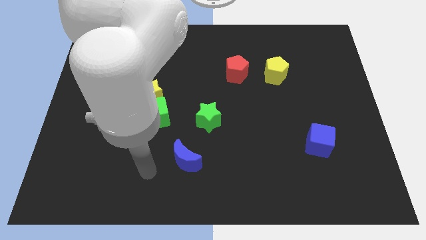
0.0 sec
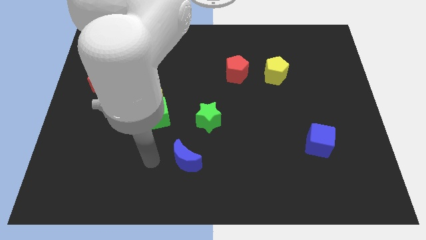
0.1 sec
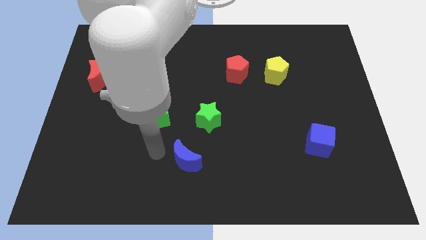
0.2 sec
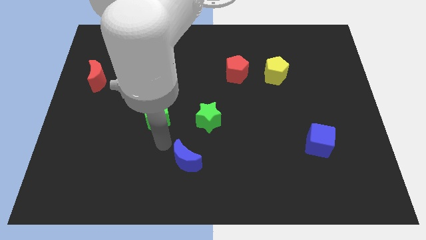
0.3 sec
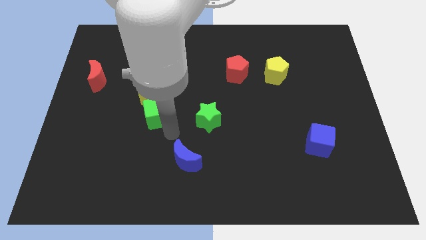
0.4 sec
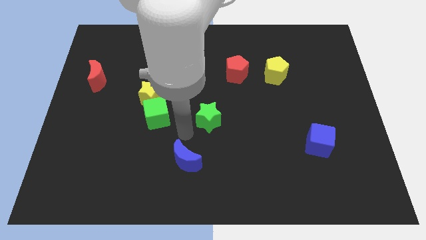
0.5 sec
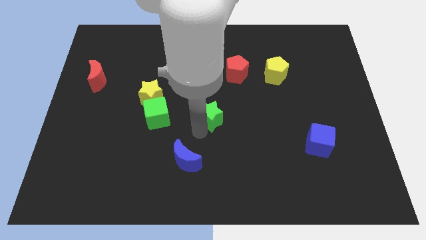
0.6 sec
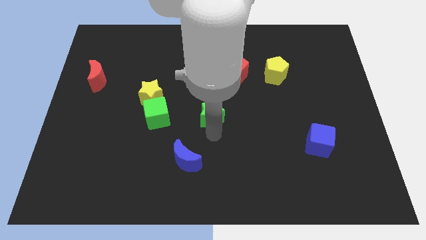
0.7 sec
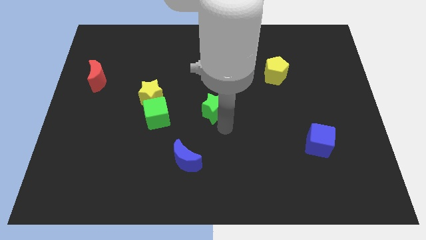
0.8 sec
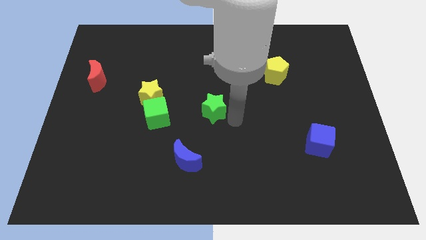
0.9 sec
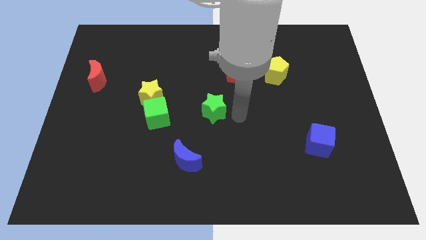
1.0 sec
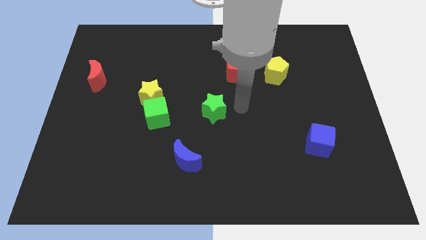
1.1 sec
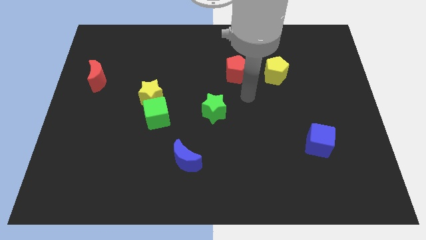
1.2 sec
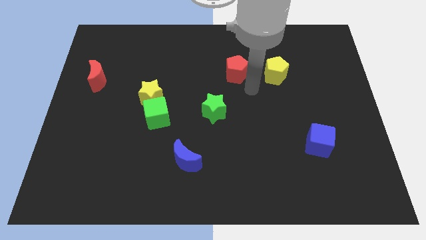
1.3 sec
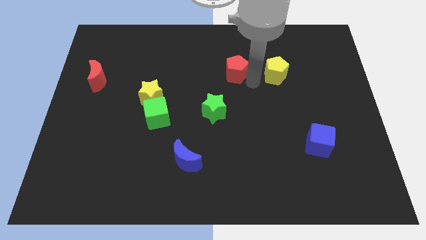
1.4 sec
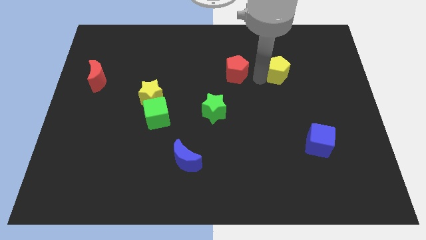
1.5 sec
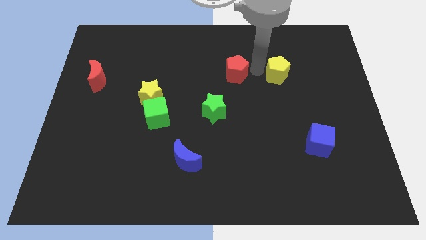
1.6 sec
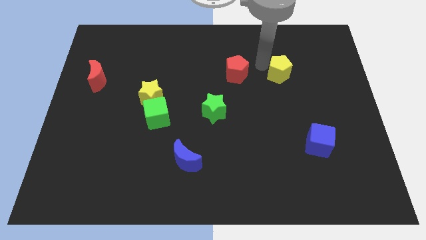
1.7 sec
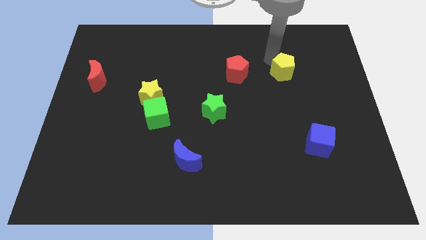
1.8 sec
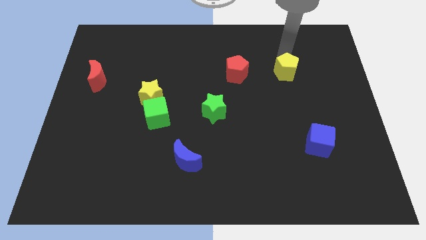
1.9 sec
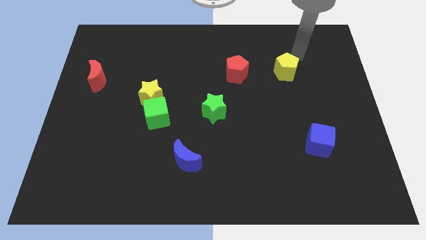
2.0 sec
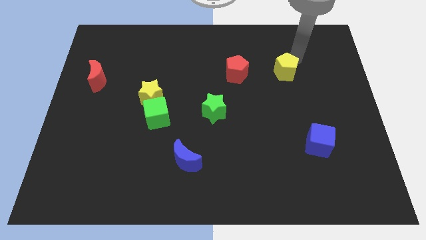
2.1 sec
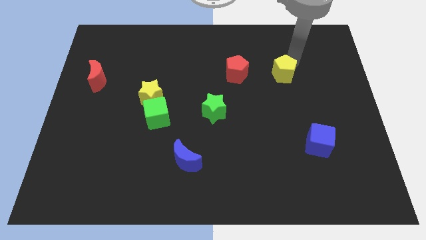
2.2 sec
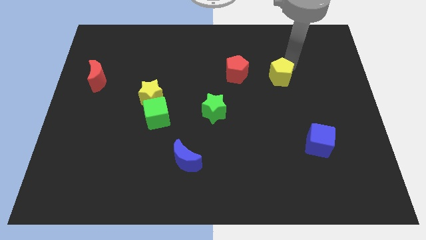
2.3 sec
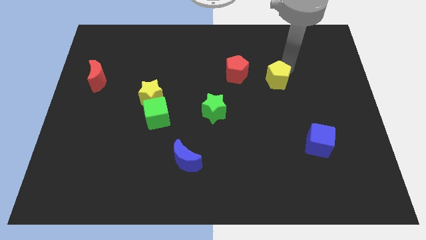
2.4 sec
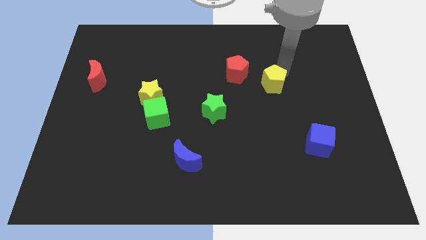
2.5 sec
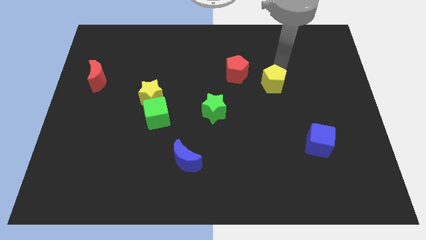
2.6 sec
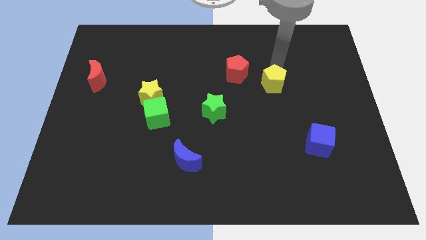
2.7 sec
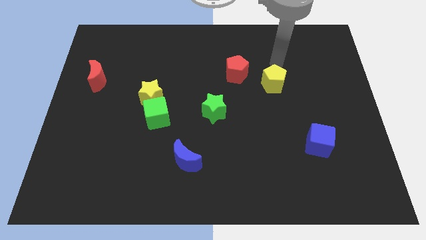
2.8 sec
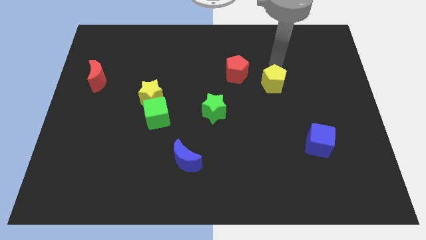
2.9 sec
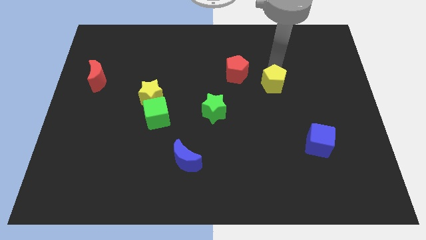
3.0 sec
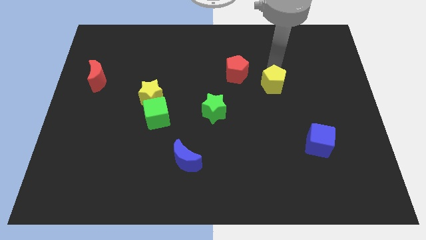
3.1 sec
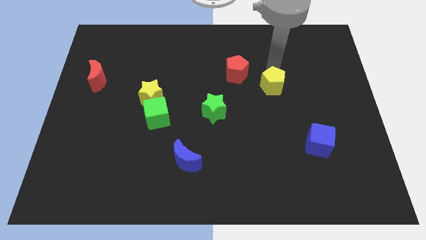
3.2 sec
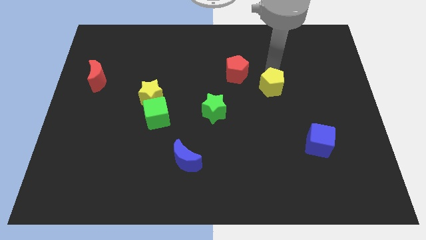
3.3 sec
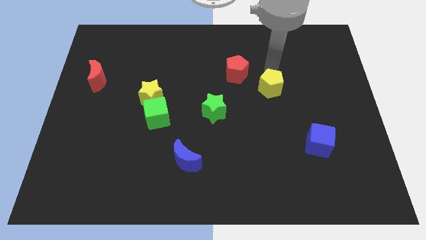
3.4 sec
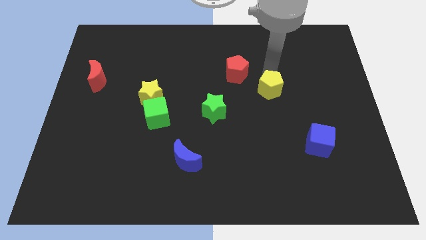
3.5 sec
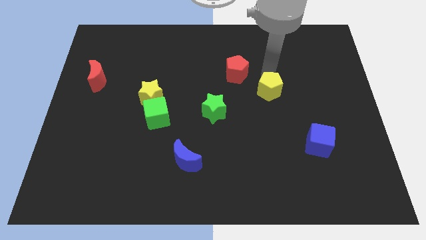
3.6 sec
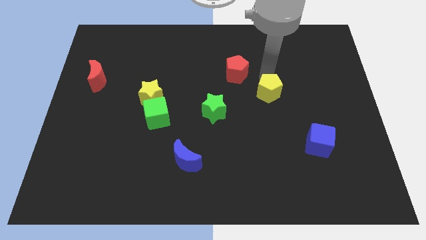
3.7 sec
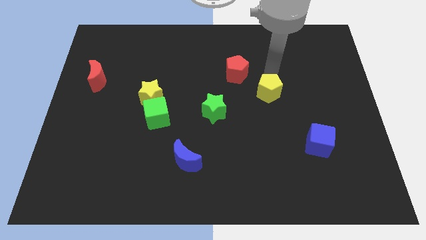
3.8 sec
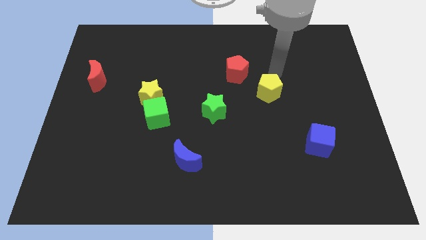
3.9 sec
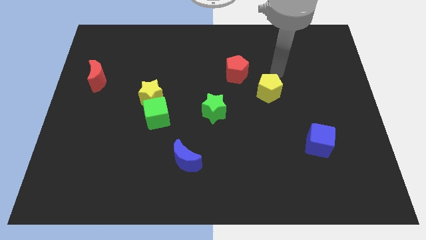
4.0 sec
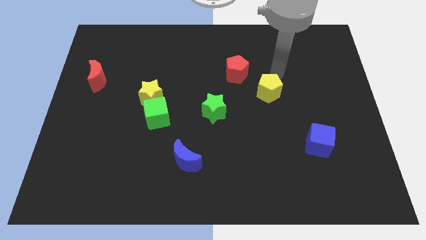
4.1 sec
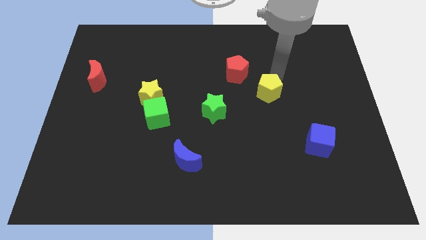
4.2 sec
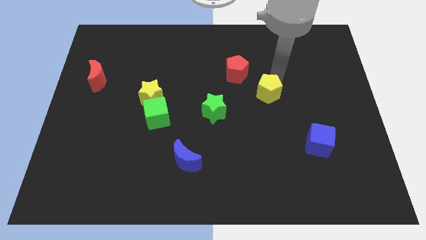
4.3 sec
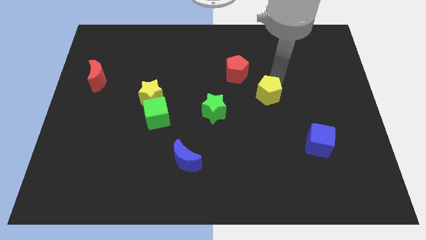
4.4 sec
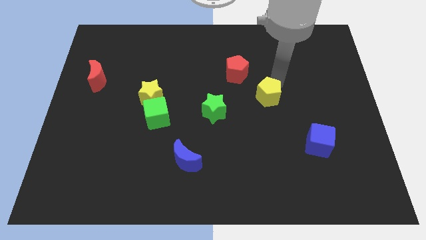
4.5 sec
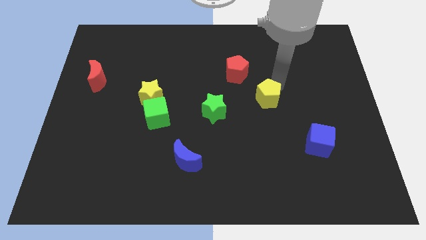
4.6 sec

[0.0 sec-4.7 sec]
put the yellow pentagon right of the green star

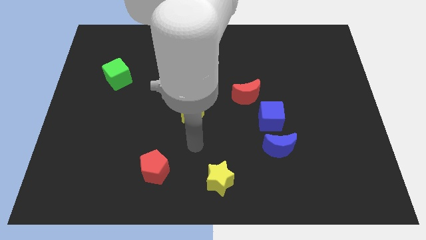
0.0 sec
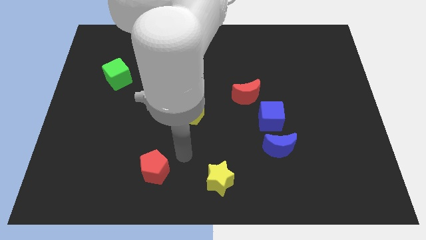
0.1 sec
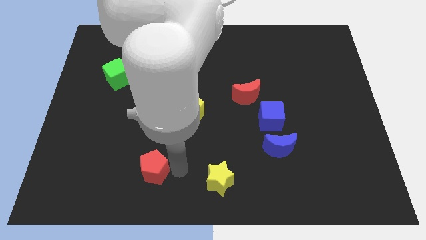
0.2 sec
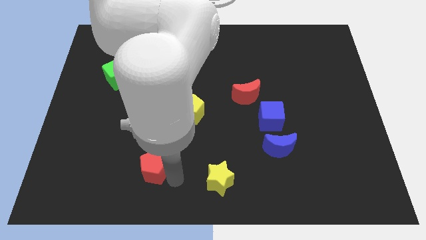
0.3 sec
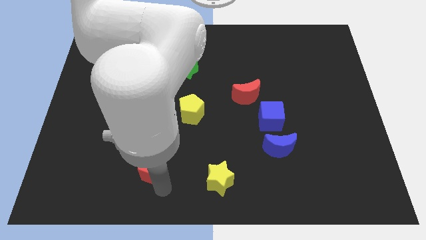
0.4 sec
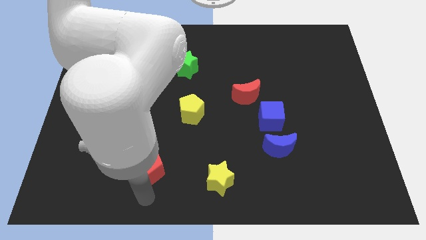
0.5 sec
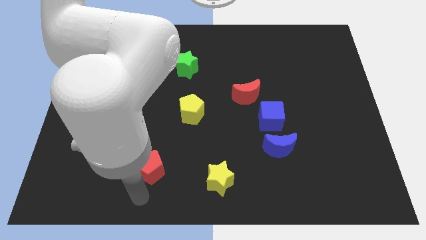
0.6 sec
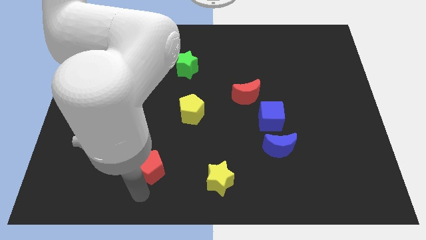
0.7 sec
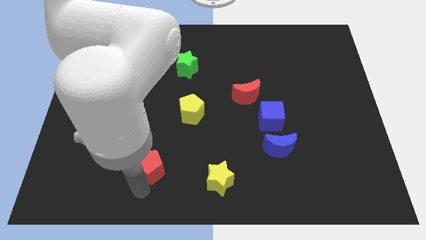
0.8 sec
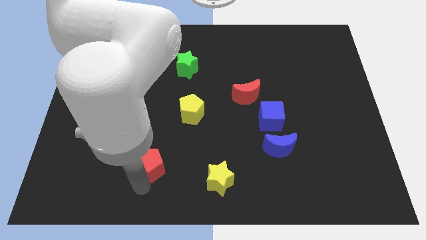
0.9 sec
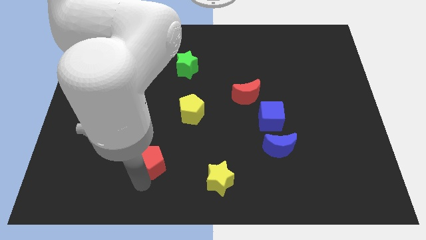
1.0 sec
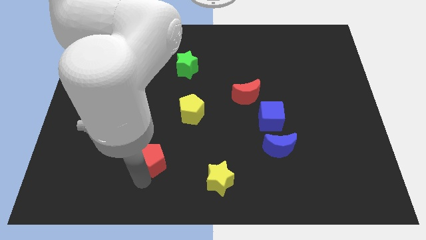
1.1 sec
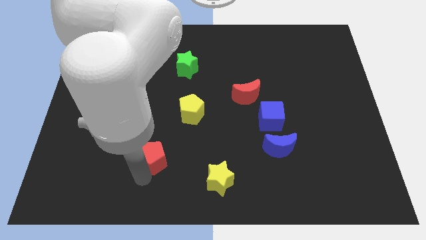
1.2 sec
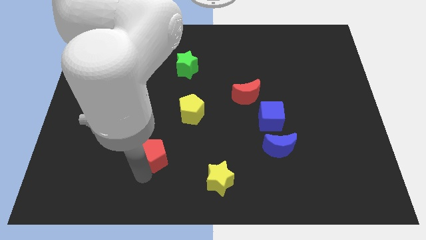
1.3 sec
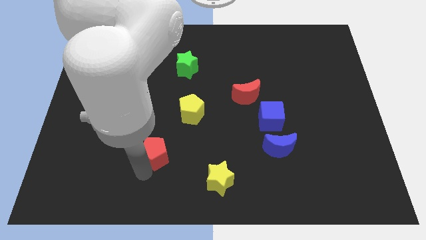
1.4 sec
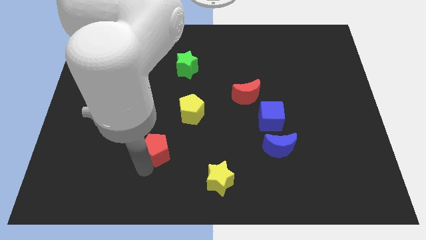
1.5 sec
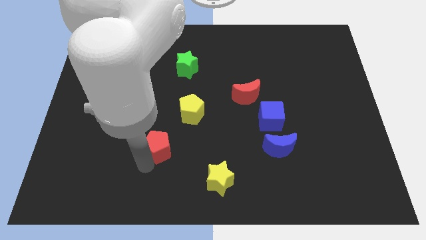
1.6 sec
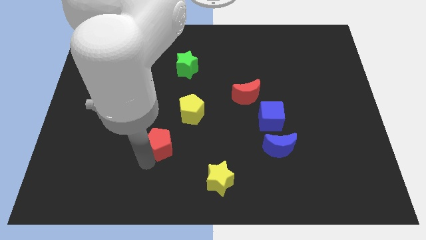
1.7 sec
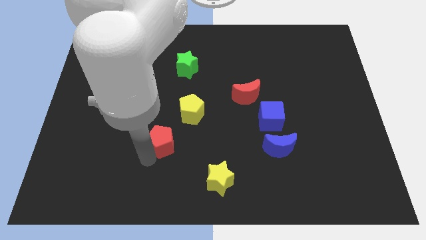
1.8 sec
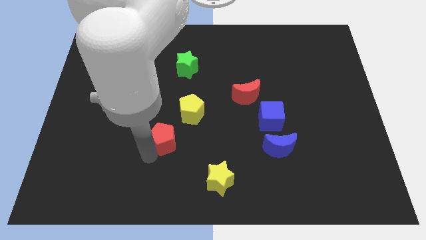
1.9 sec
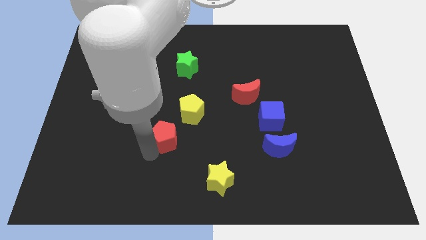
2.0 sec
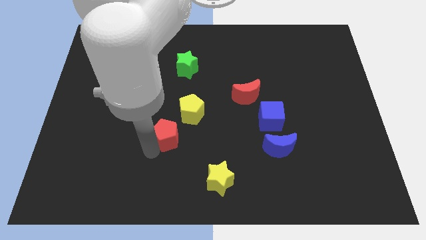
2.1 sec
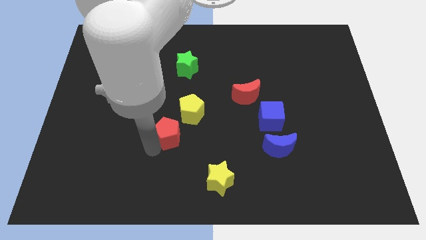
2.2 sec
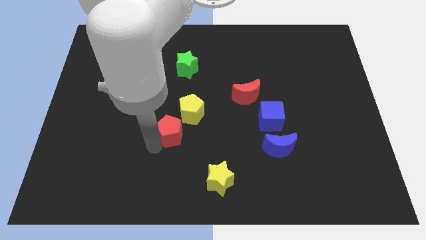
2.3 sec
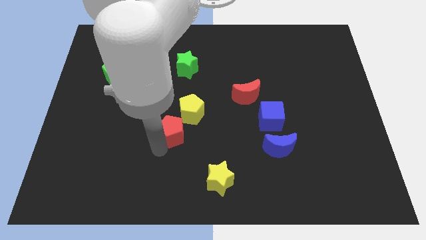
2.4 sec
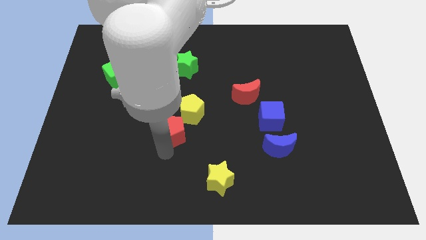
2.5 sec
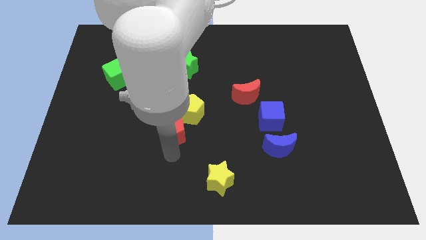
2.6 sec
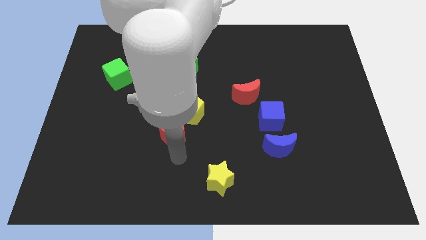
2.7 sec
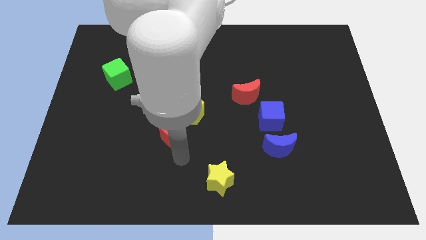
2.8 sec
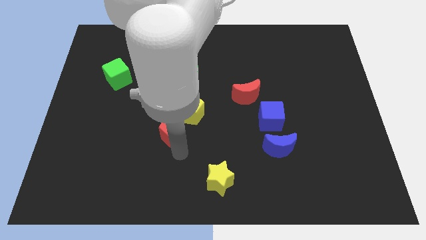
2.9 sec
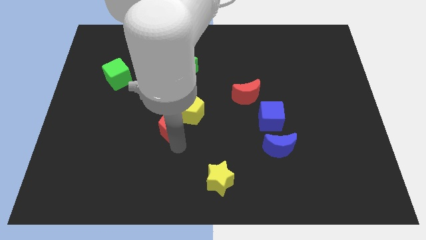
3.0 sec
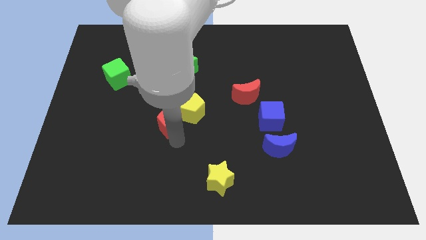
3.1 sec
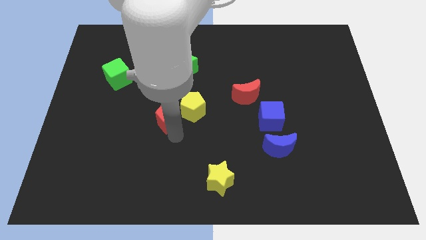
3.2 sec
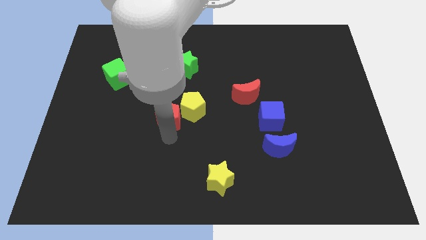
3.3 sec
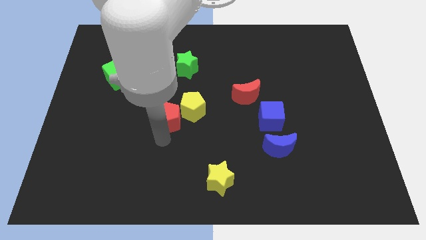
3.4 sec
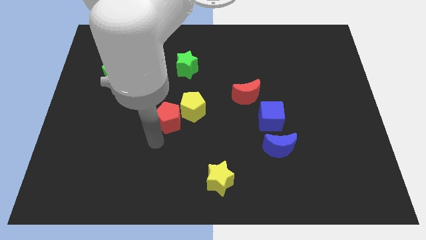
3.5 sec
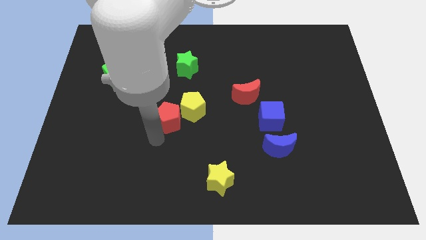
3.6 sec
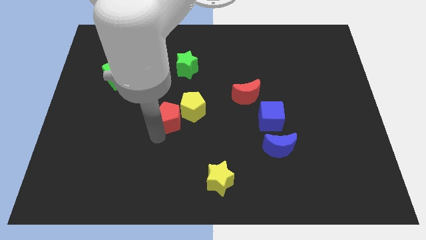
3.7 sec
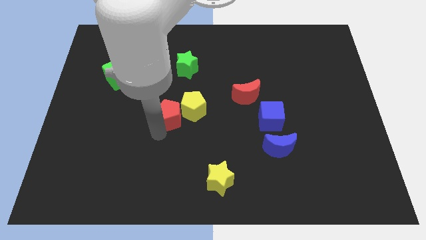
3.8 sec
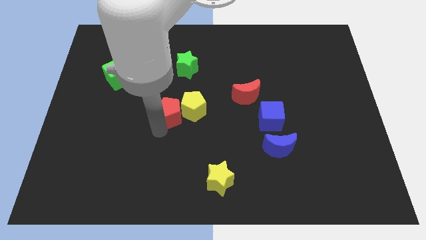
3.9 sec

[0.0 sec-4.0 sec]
move the red pentagon to the bottom side of the green star
